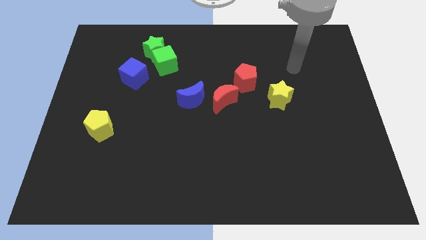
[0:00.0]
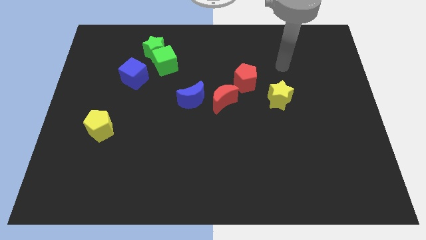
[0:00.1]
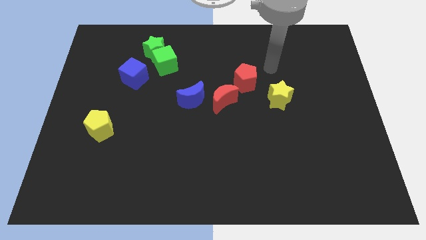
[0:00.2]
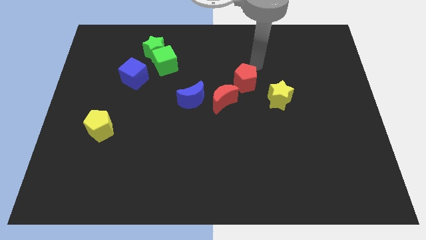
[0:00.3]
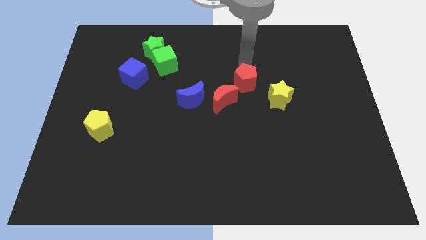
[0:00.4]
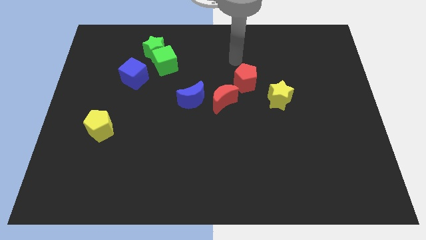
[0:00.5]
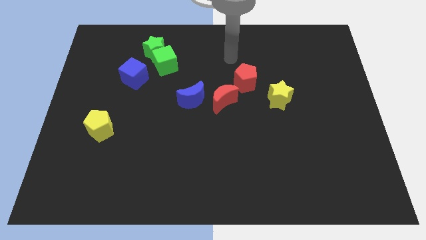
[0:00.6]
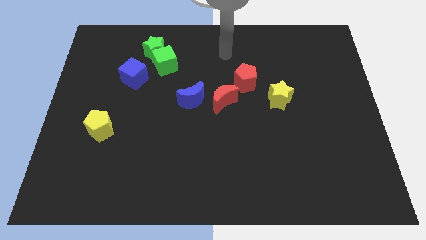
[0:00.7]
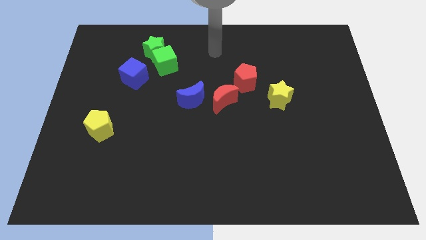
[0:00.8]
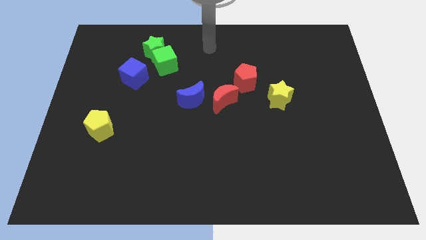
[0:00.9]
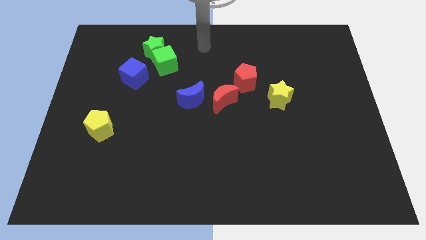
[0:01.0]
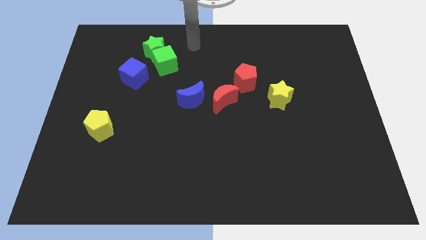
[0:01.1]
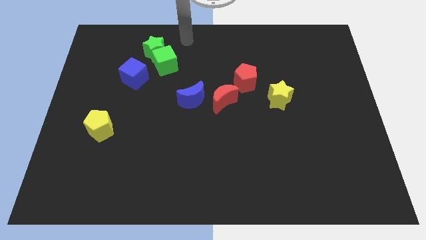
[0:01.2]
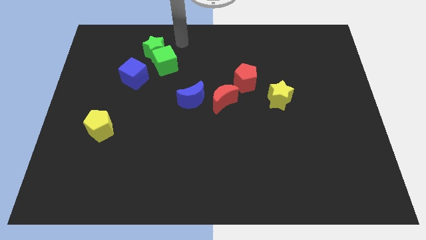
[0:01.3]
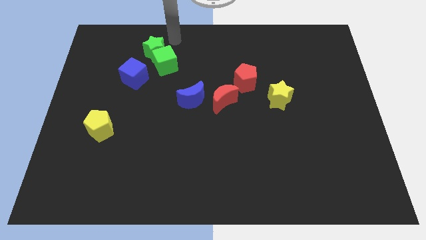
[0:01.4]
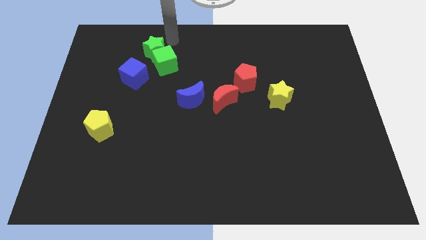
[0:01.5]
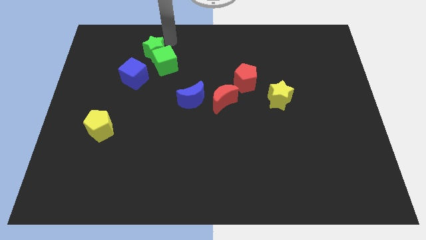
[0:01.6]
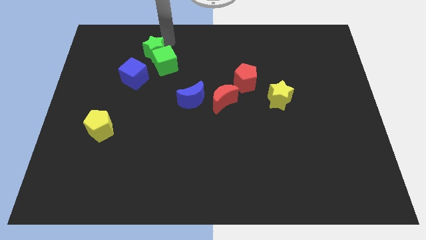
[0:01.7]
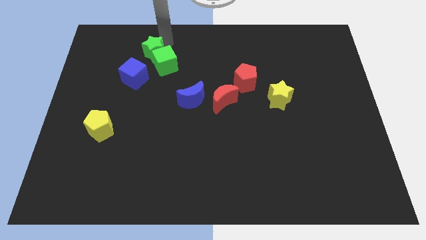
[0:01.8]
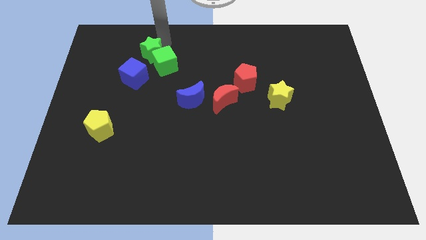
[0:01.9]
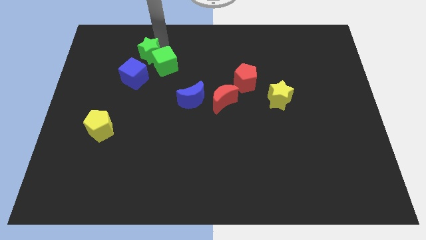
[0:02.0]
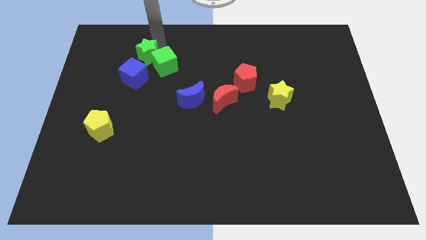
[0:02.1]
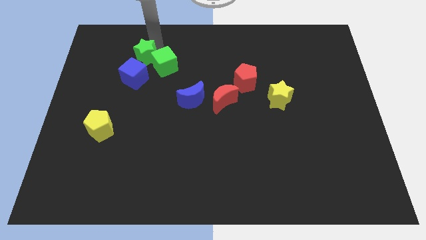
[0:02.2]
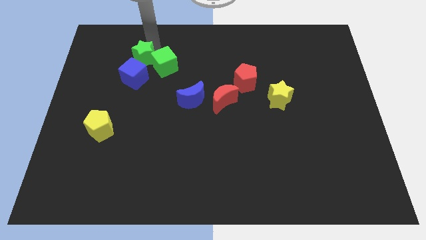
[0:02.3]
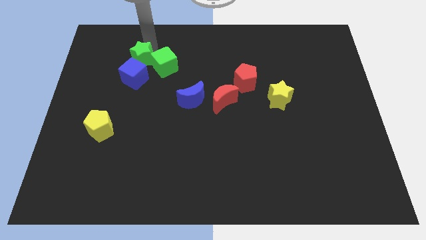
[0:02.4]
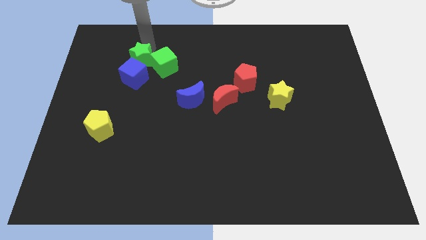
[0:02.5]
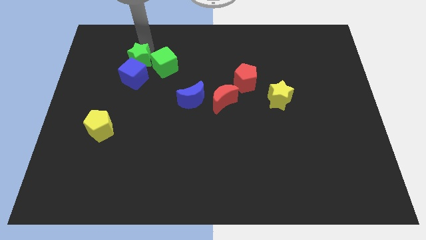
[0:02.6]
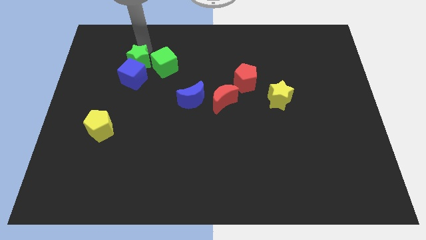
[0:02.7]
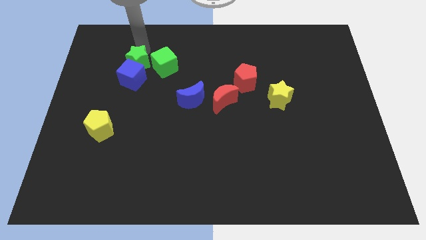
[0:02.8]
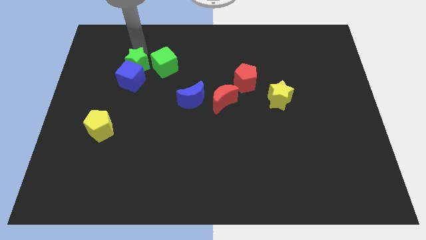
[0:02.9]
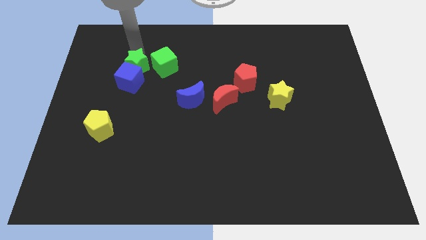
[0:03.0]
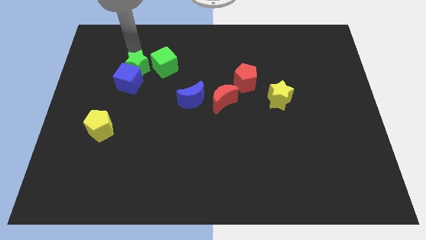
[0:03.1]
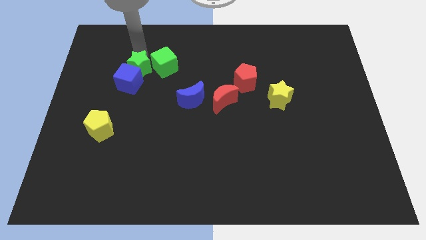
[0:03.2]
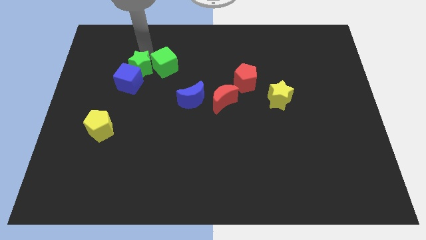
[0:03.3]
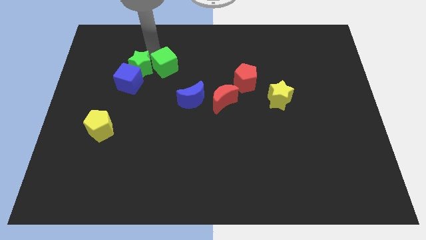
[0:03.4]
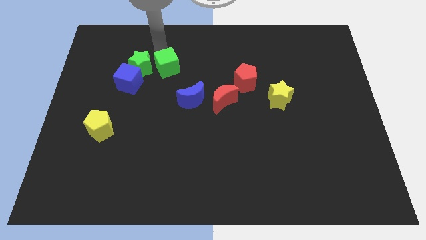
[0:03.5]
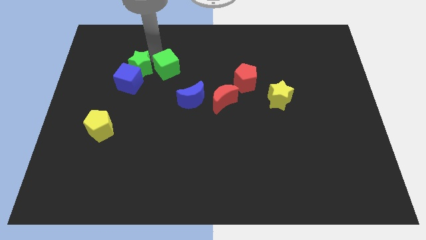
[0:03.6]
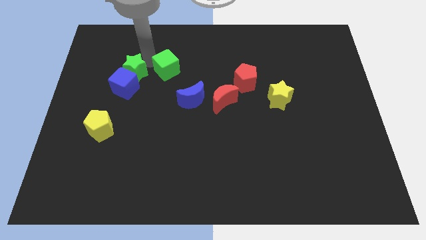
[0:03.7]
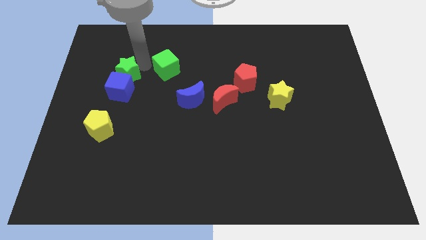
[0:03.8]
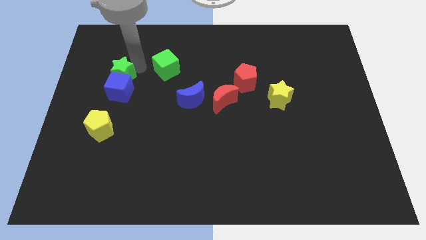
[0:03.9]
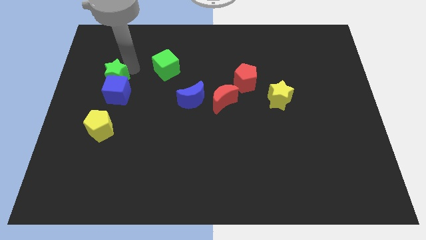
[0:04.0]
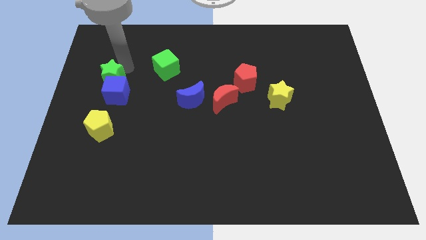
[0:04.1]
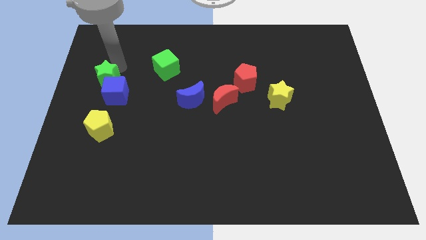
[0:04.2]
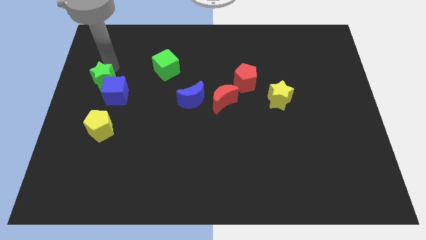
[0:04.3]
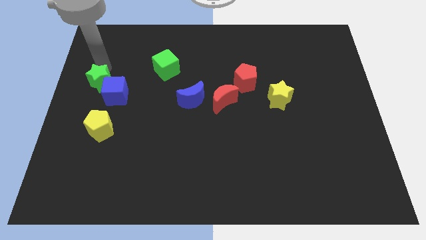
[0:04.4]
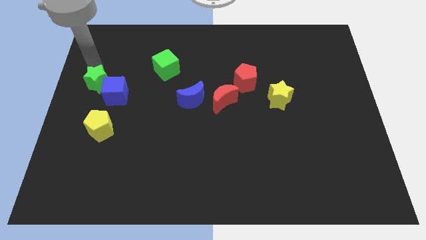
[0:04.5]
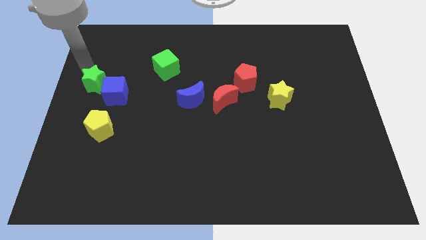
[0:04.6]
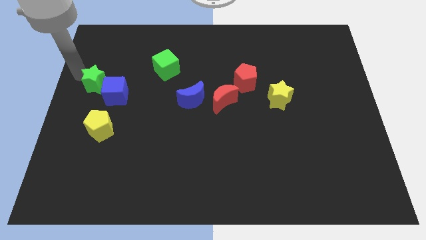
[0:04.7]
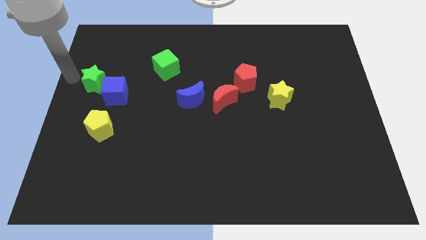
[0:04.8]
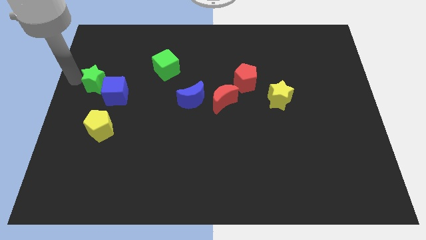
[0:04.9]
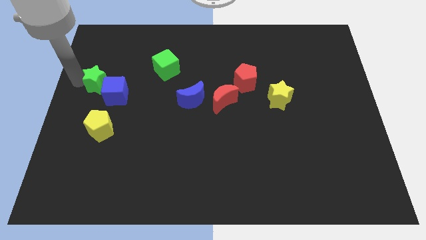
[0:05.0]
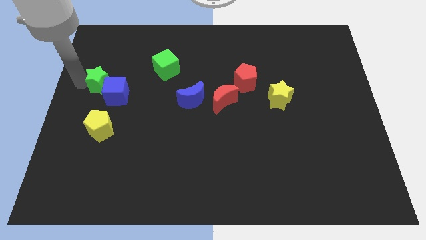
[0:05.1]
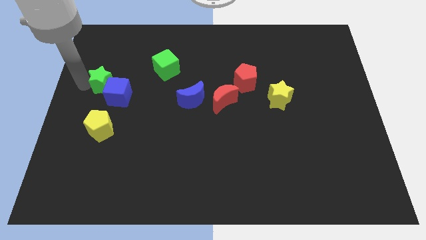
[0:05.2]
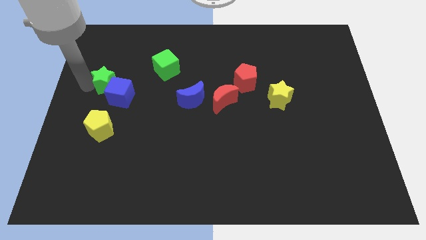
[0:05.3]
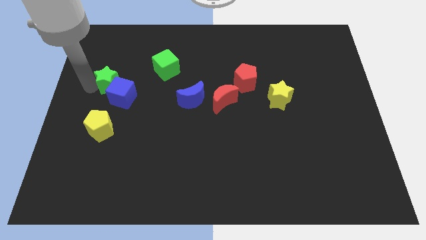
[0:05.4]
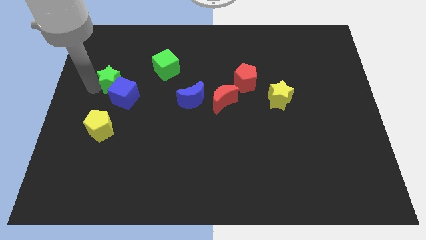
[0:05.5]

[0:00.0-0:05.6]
move the green star a little downwards

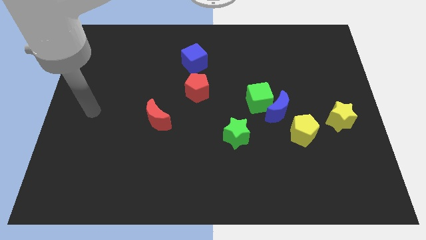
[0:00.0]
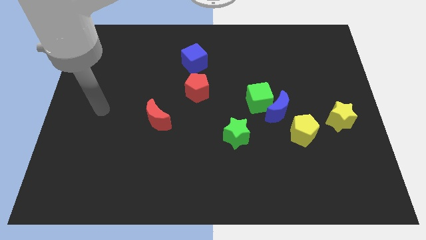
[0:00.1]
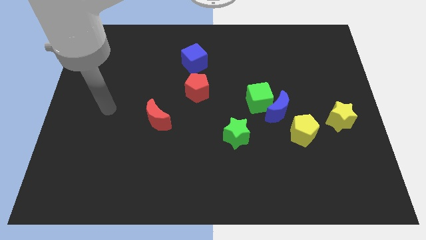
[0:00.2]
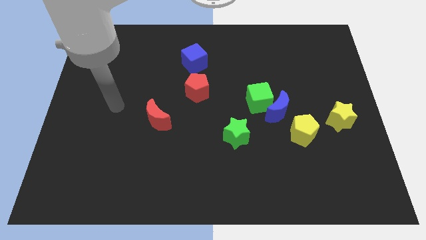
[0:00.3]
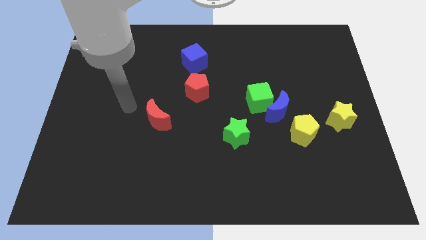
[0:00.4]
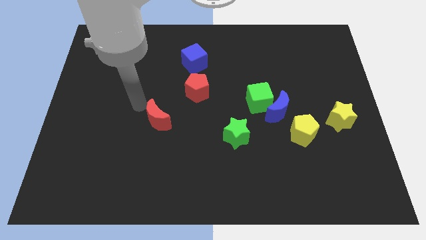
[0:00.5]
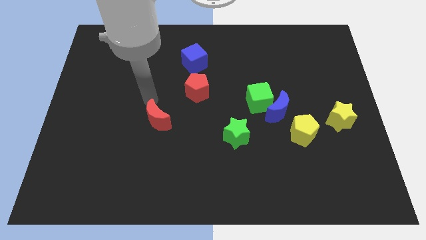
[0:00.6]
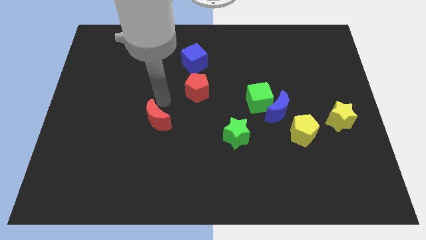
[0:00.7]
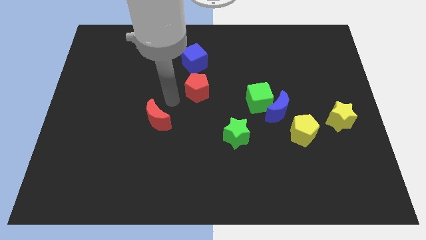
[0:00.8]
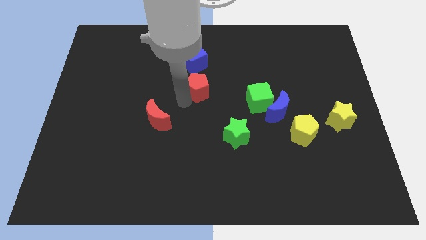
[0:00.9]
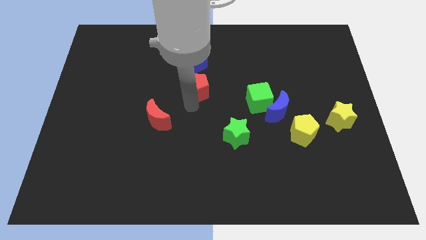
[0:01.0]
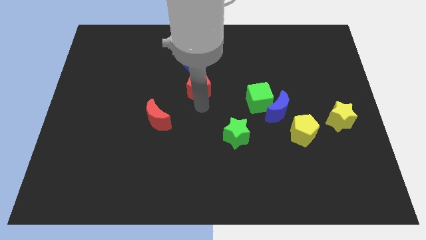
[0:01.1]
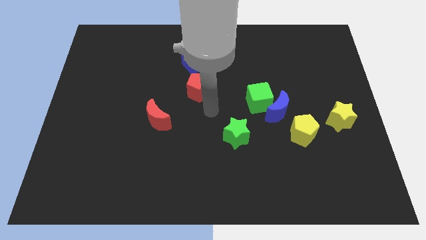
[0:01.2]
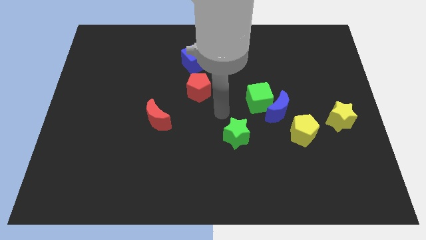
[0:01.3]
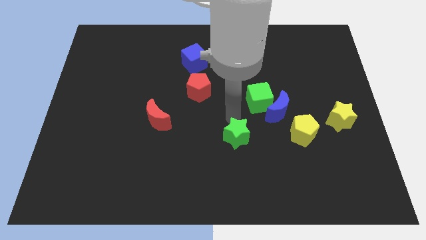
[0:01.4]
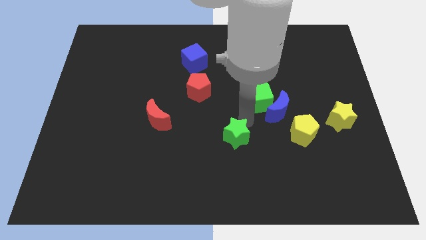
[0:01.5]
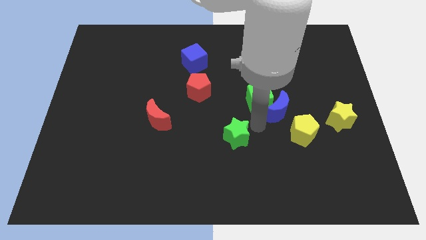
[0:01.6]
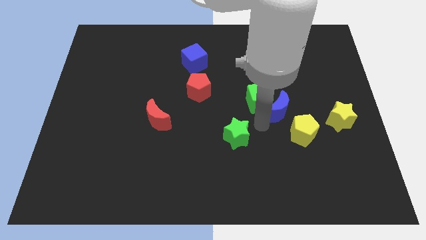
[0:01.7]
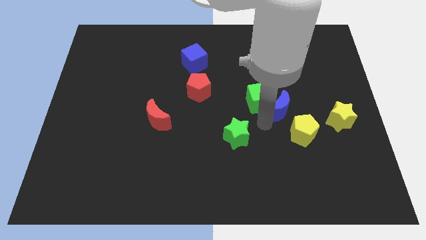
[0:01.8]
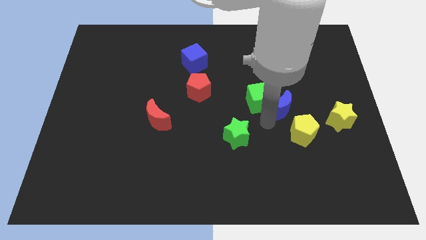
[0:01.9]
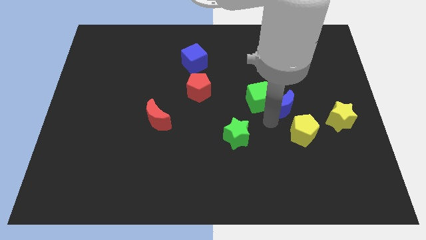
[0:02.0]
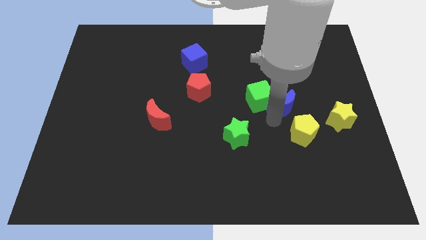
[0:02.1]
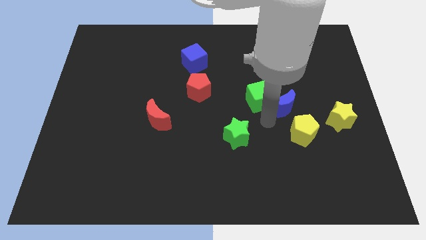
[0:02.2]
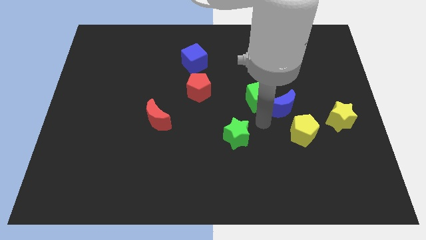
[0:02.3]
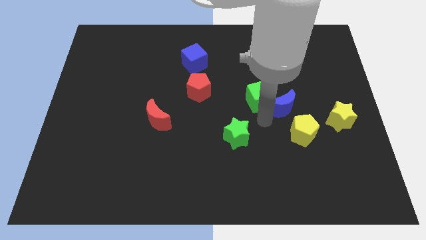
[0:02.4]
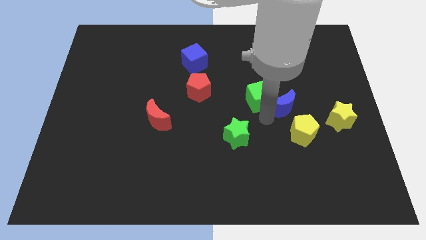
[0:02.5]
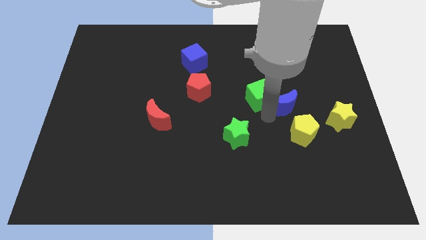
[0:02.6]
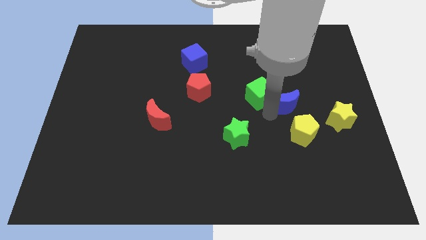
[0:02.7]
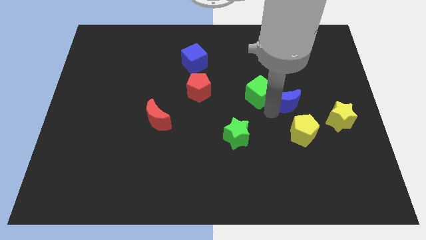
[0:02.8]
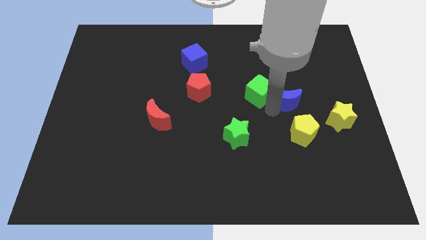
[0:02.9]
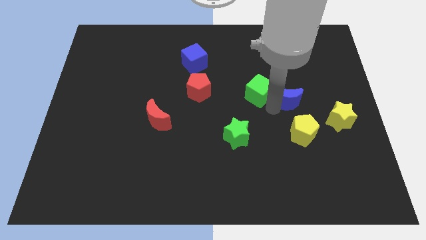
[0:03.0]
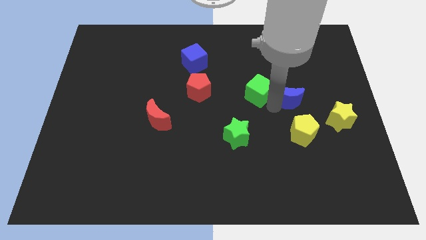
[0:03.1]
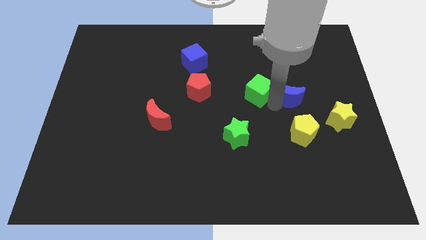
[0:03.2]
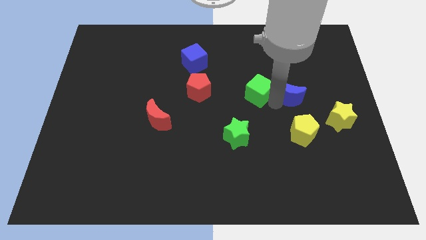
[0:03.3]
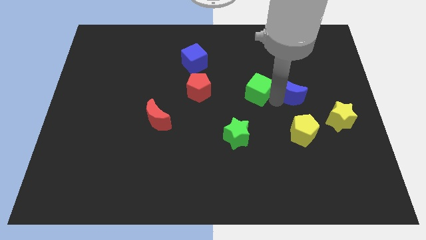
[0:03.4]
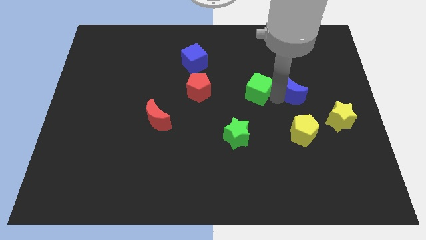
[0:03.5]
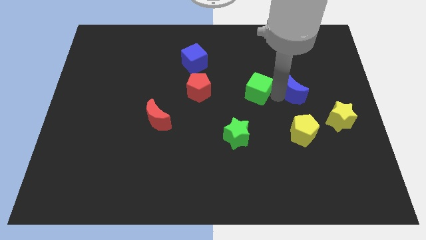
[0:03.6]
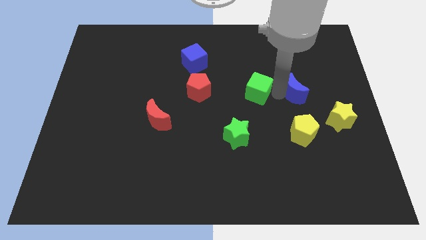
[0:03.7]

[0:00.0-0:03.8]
slide the blue moon a little bit up and then right
